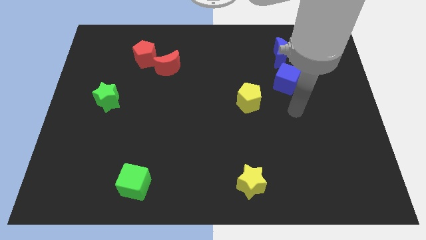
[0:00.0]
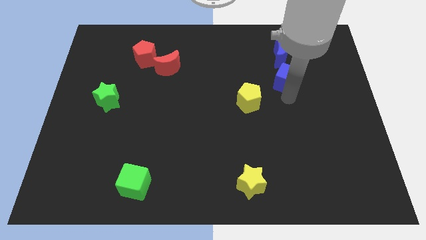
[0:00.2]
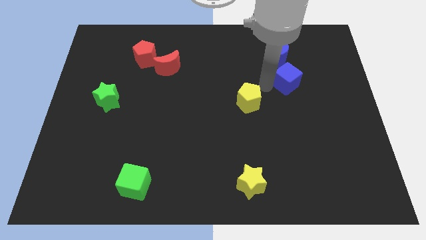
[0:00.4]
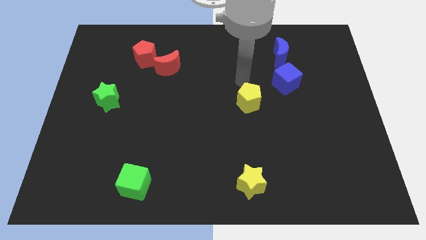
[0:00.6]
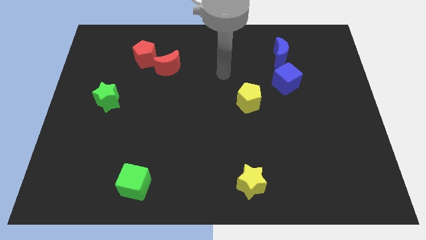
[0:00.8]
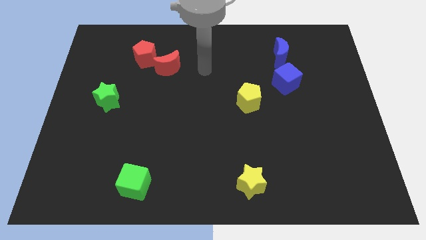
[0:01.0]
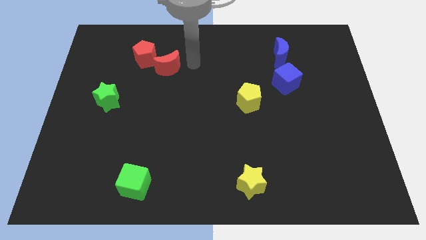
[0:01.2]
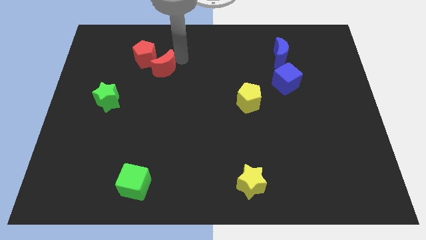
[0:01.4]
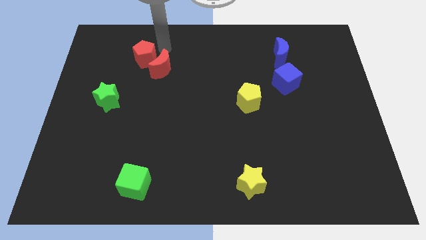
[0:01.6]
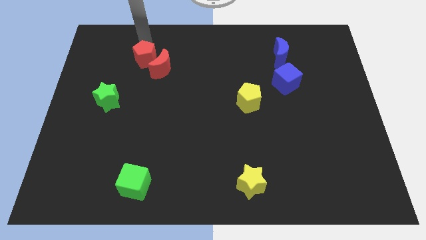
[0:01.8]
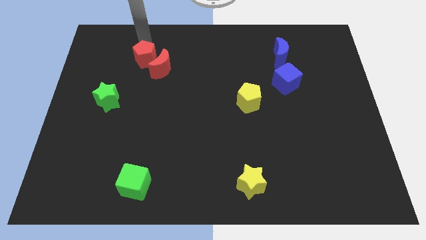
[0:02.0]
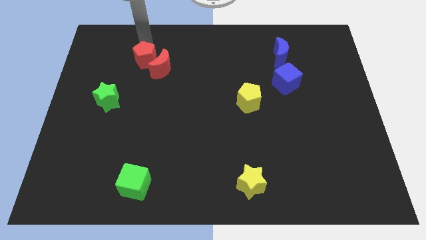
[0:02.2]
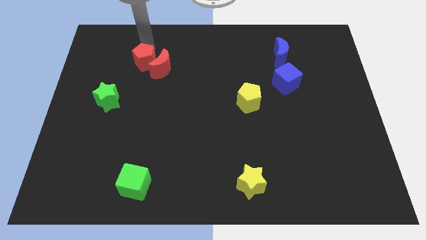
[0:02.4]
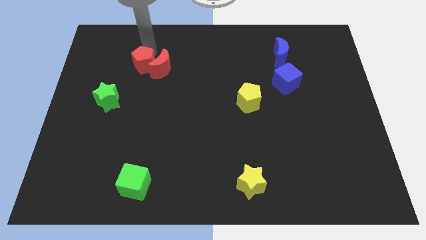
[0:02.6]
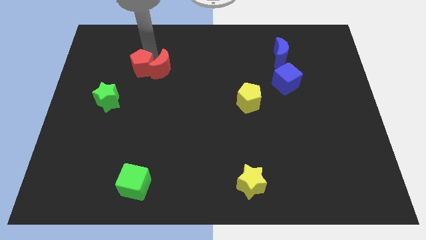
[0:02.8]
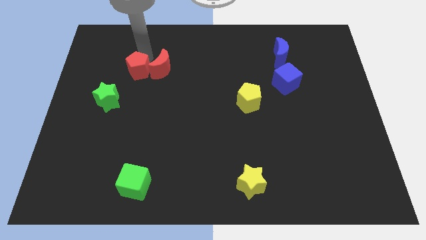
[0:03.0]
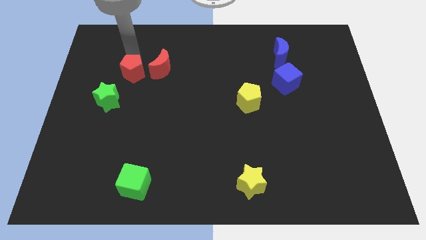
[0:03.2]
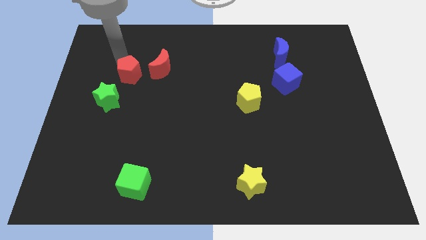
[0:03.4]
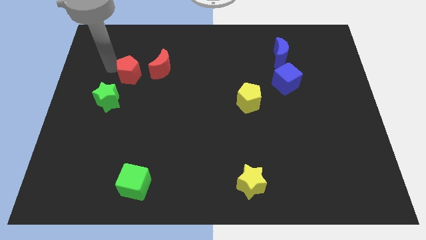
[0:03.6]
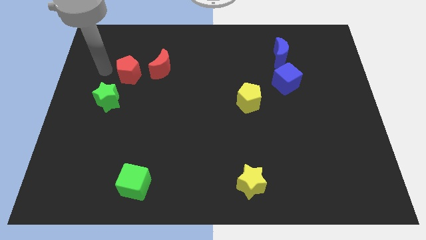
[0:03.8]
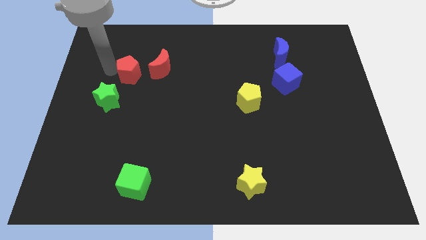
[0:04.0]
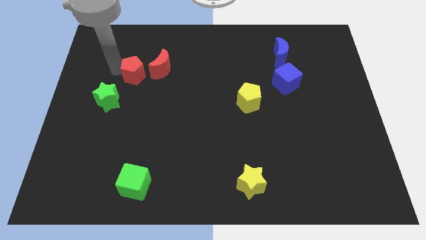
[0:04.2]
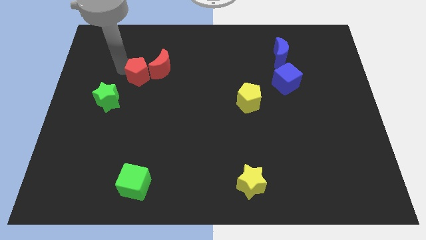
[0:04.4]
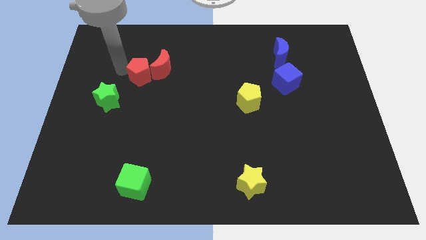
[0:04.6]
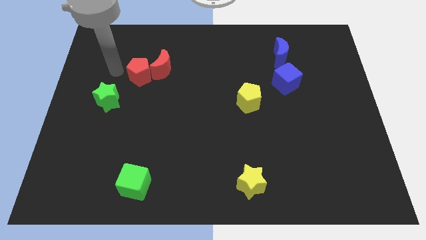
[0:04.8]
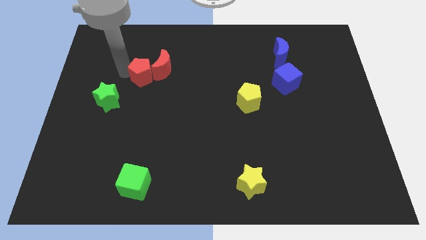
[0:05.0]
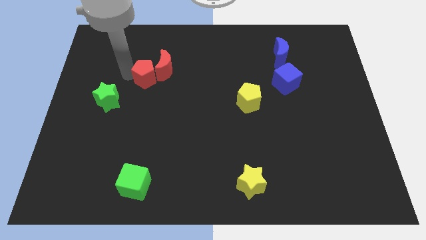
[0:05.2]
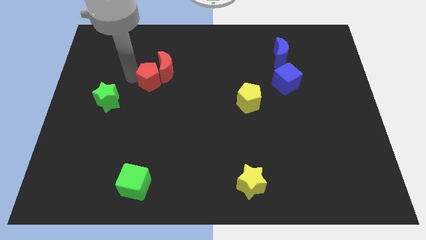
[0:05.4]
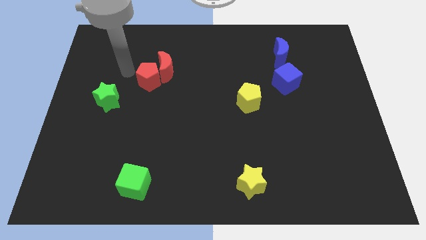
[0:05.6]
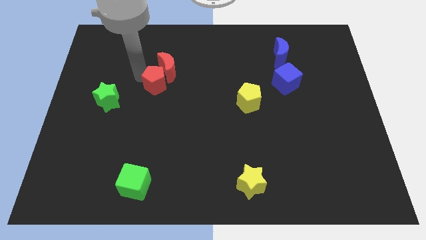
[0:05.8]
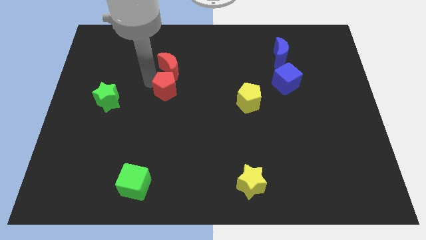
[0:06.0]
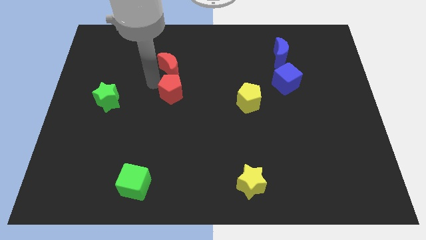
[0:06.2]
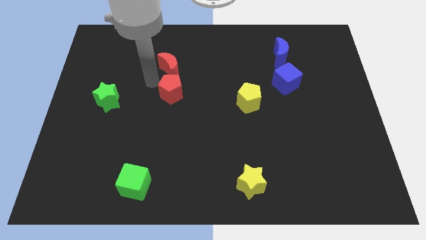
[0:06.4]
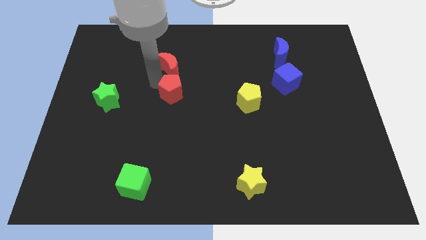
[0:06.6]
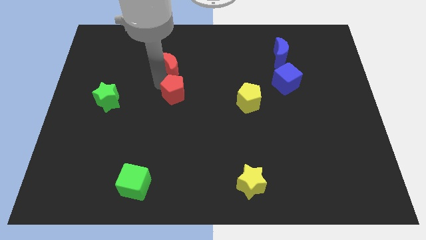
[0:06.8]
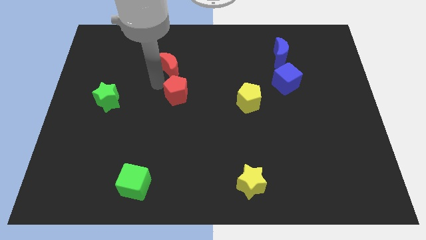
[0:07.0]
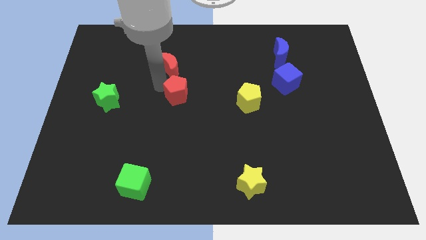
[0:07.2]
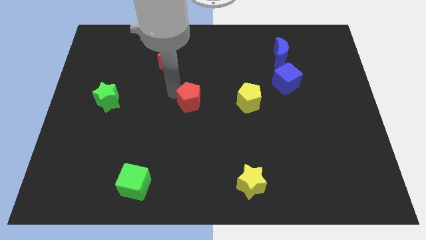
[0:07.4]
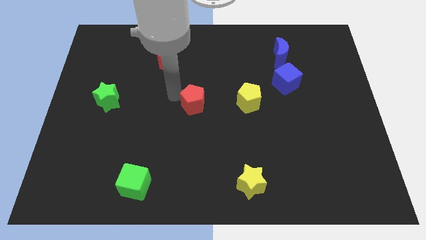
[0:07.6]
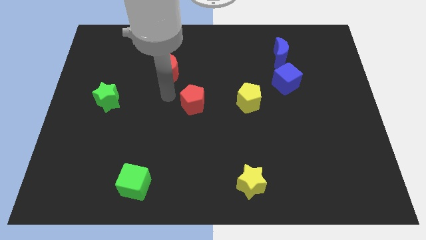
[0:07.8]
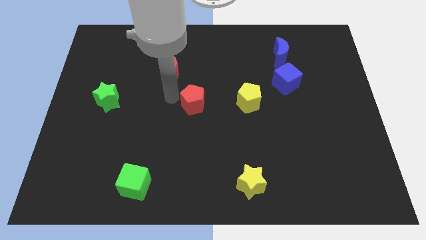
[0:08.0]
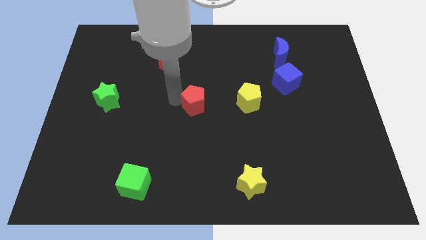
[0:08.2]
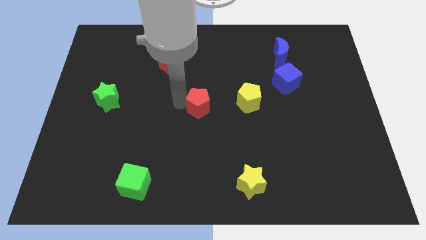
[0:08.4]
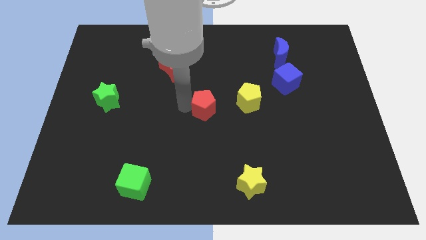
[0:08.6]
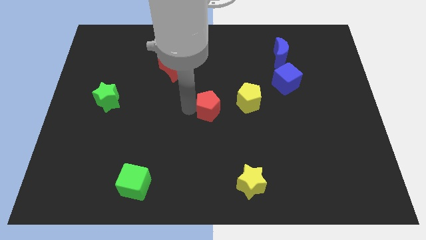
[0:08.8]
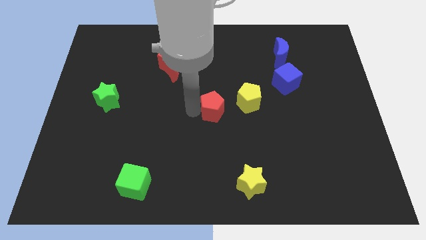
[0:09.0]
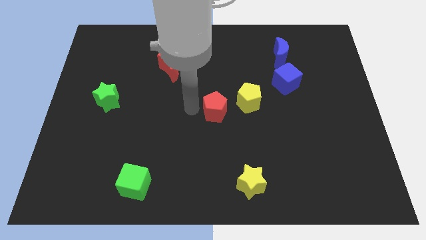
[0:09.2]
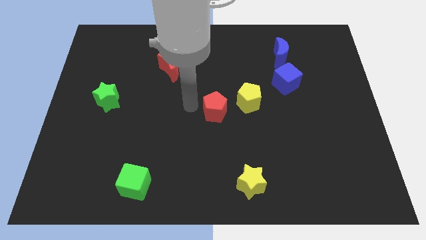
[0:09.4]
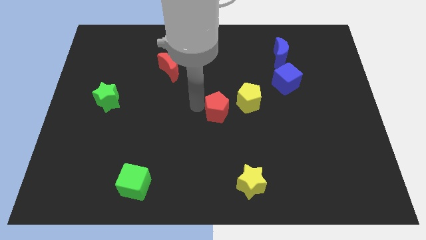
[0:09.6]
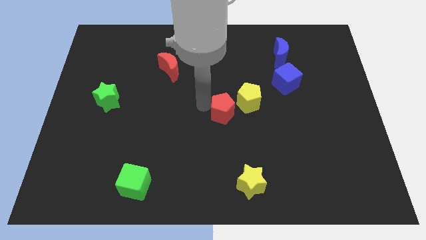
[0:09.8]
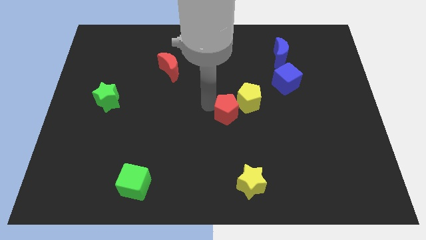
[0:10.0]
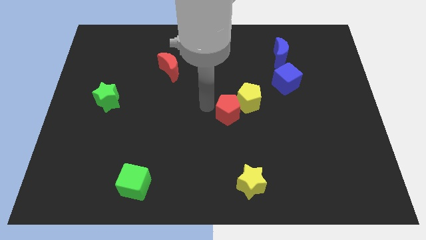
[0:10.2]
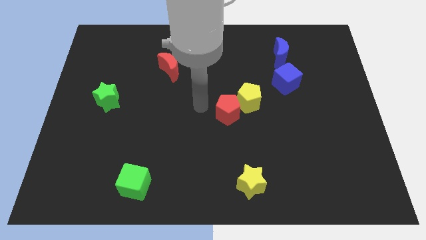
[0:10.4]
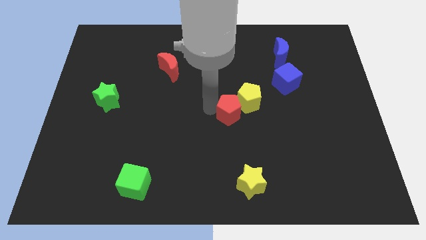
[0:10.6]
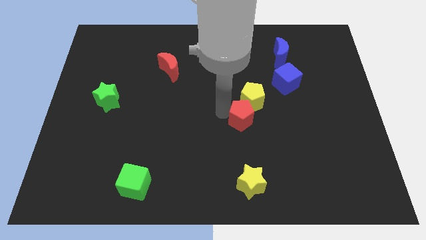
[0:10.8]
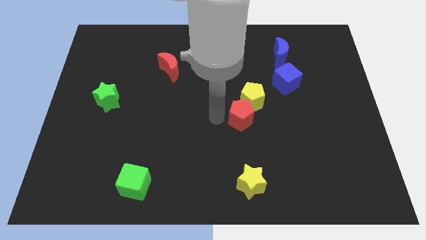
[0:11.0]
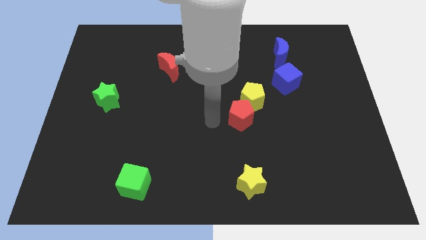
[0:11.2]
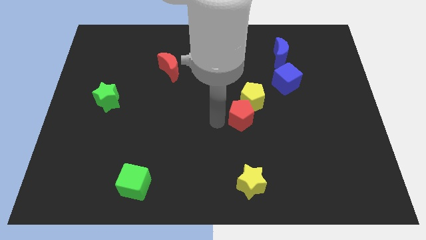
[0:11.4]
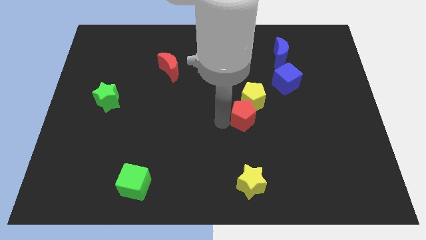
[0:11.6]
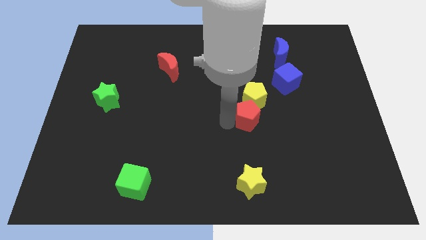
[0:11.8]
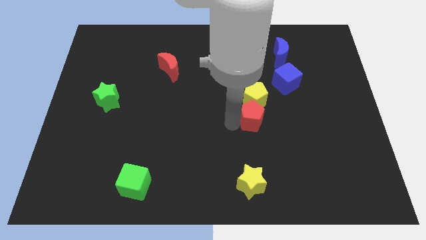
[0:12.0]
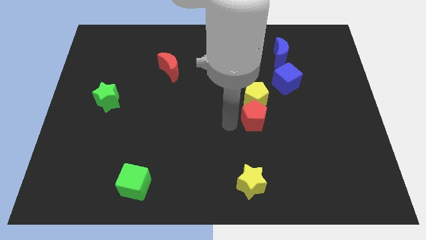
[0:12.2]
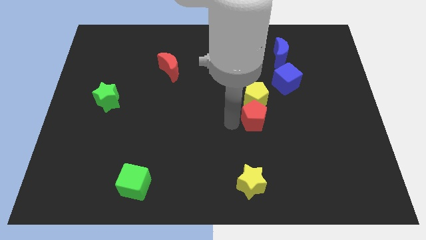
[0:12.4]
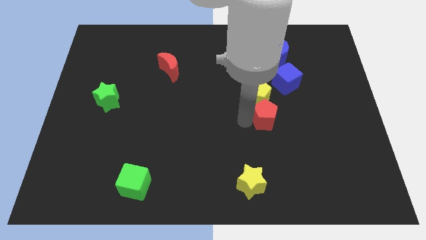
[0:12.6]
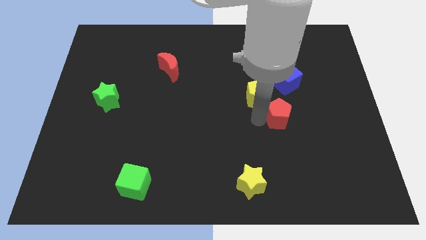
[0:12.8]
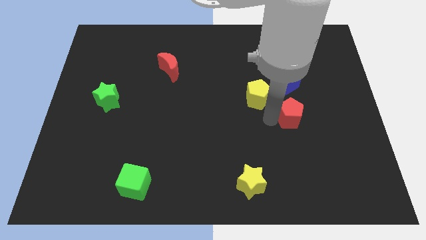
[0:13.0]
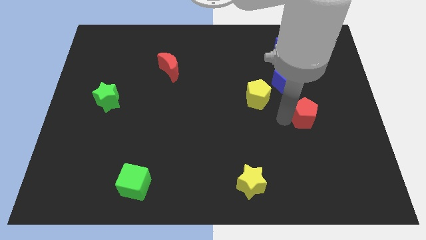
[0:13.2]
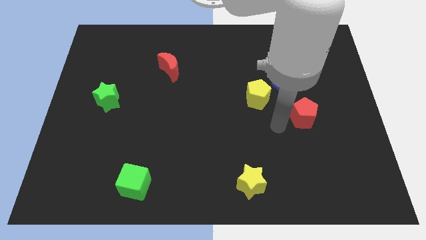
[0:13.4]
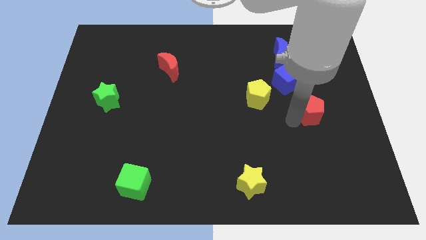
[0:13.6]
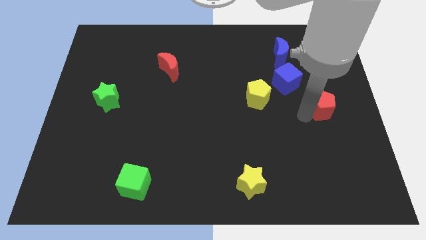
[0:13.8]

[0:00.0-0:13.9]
move the red pentagon to the right side of the board

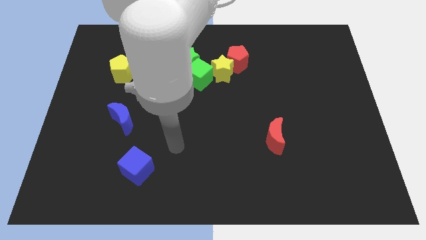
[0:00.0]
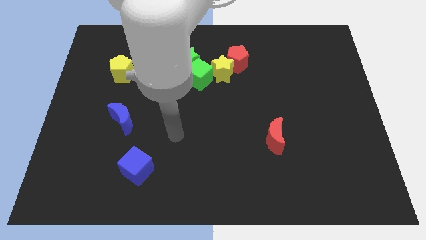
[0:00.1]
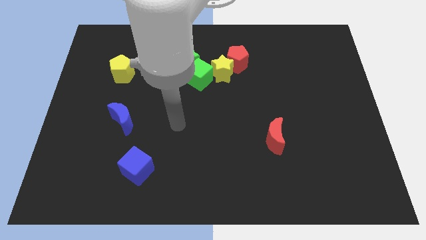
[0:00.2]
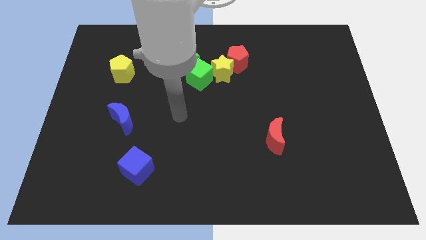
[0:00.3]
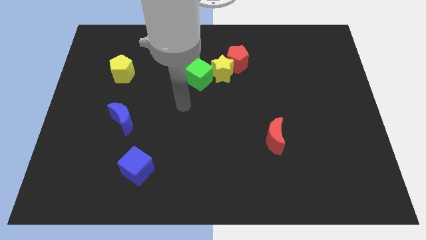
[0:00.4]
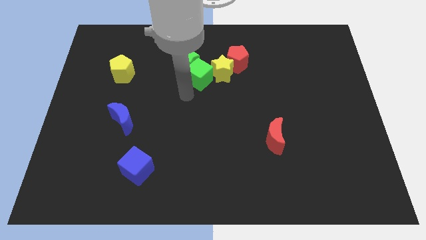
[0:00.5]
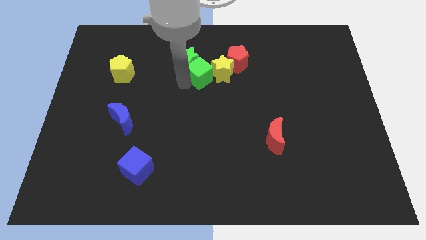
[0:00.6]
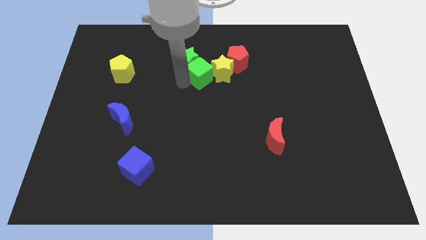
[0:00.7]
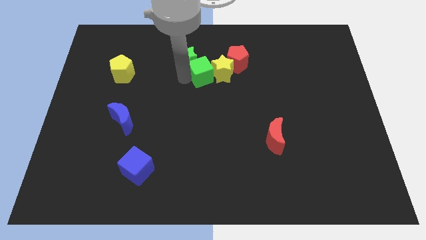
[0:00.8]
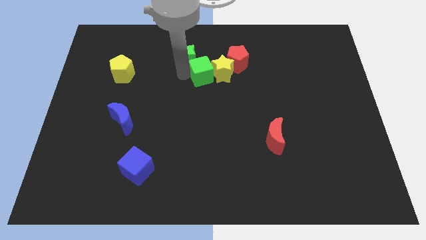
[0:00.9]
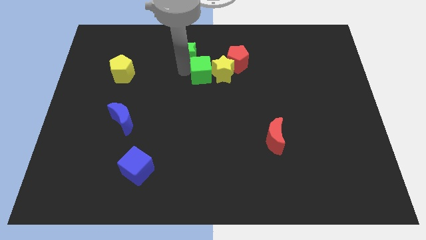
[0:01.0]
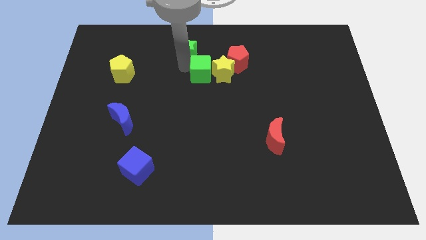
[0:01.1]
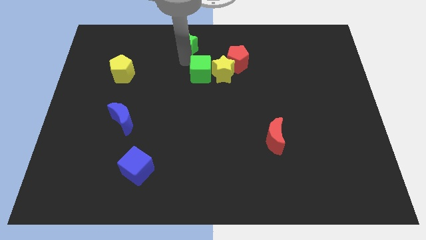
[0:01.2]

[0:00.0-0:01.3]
push the green star to the towards your base

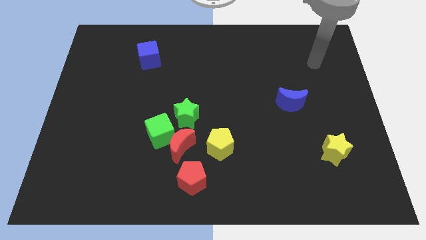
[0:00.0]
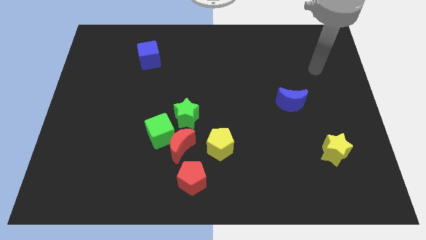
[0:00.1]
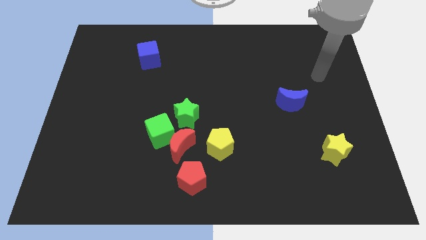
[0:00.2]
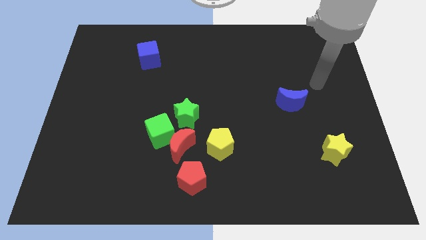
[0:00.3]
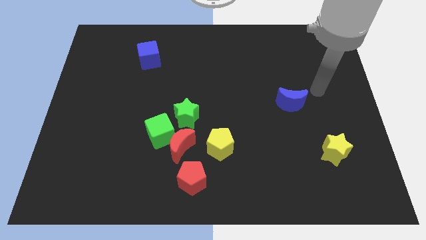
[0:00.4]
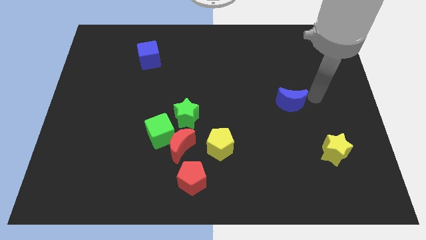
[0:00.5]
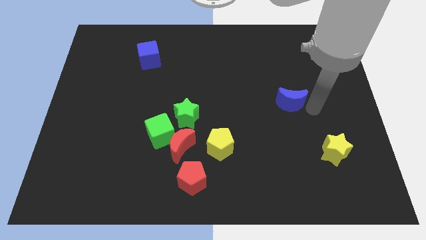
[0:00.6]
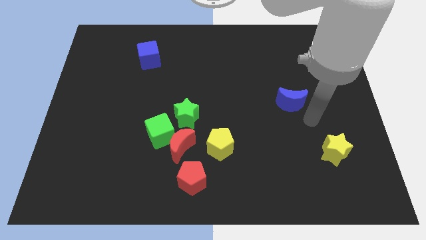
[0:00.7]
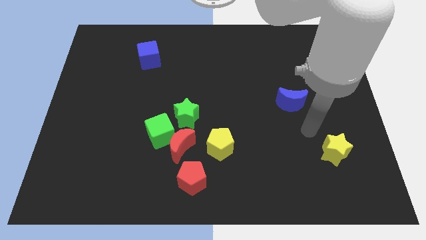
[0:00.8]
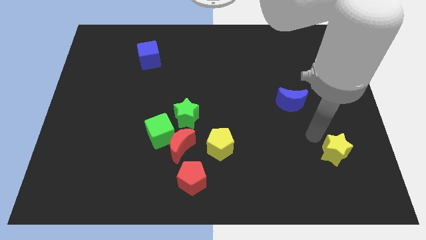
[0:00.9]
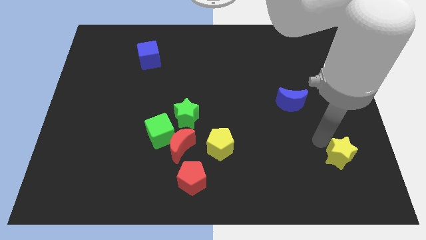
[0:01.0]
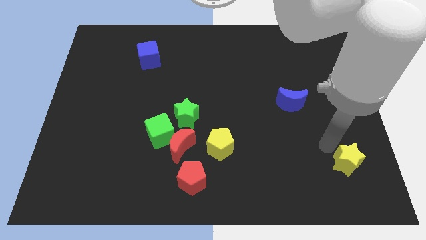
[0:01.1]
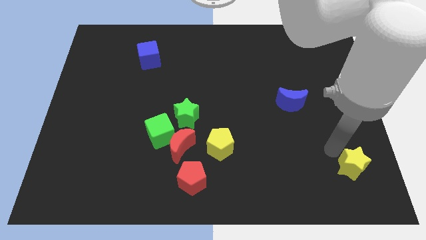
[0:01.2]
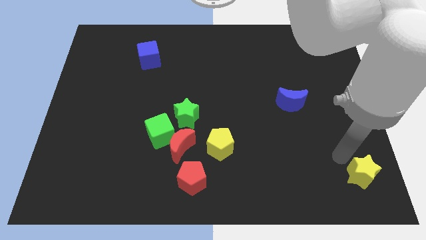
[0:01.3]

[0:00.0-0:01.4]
slide the yellow star to the bottom right corner
